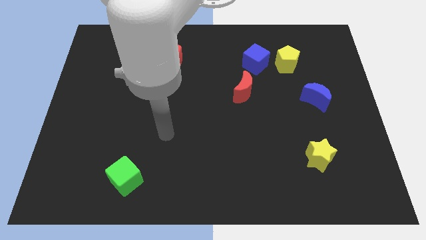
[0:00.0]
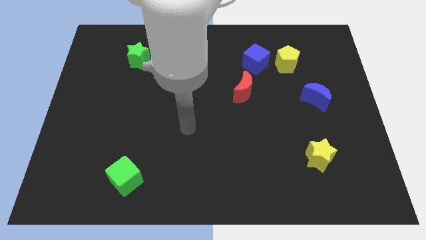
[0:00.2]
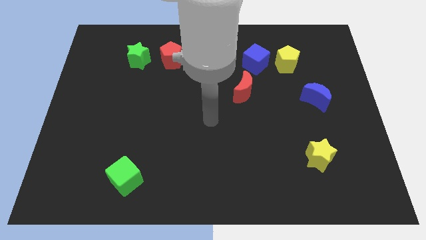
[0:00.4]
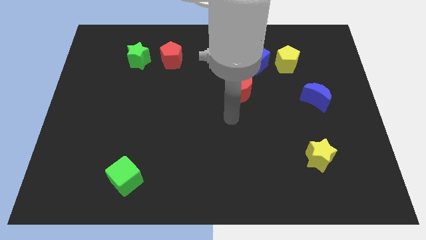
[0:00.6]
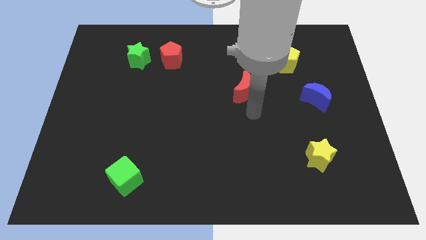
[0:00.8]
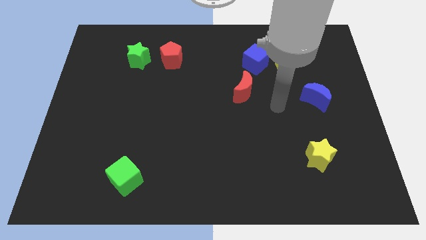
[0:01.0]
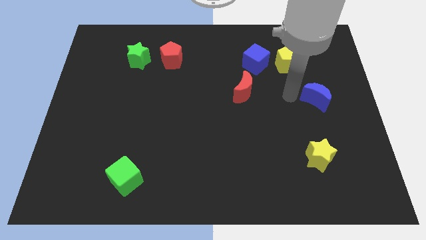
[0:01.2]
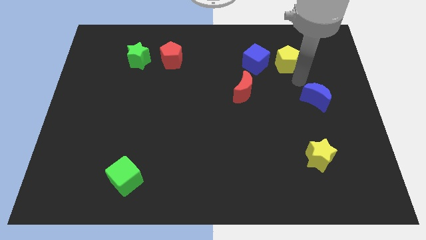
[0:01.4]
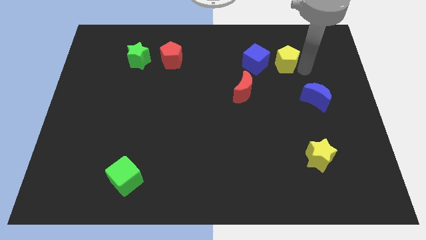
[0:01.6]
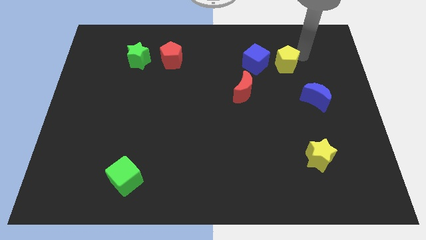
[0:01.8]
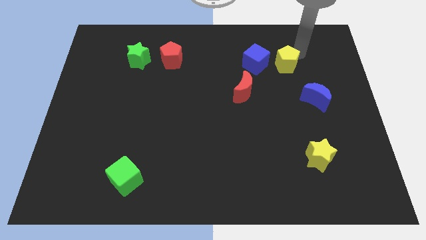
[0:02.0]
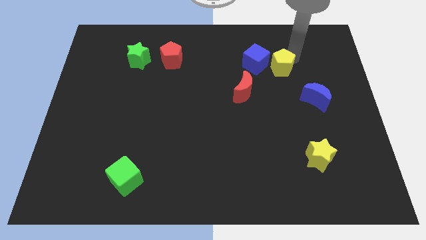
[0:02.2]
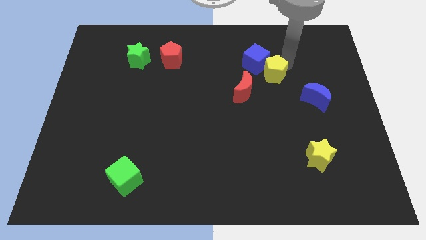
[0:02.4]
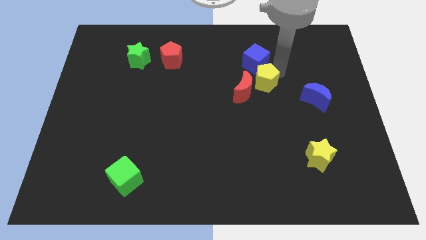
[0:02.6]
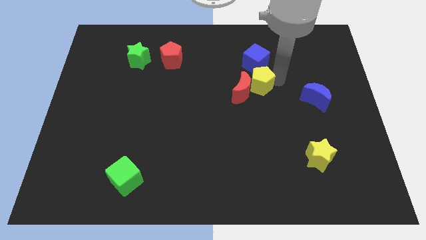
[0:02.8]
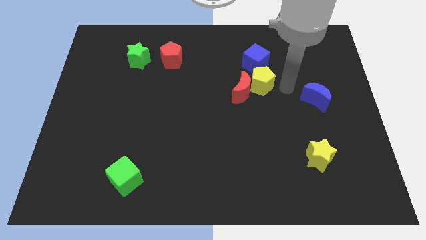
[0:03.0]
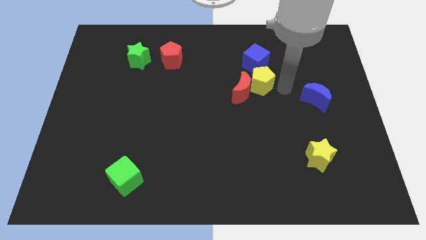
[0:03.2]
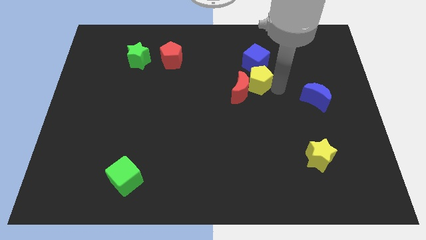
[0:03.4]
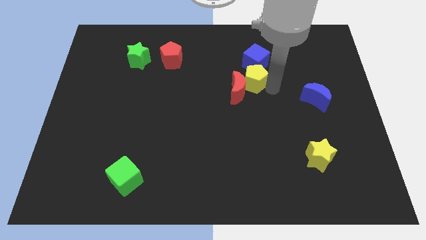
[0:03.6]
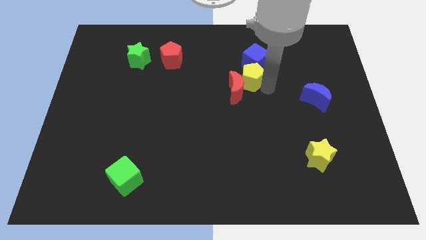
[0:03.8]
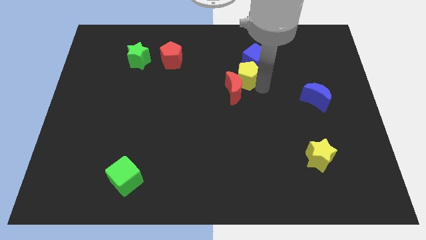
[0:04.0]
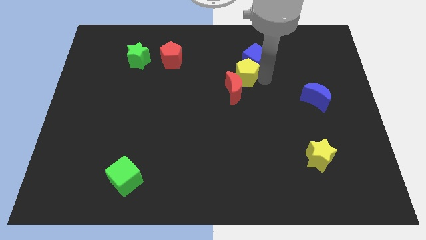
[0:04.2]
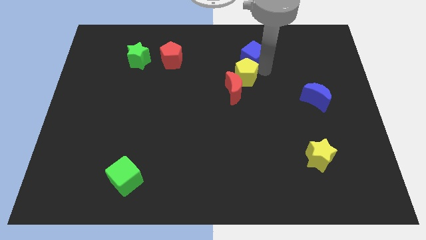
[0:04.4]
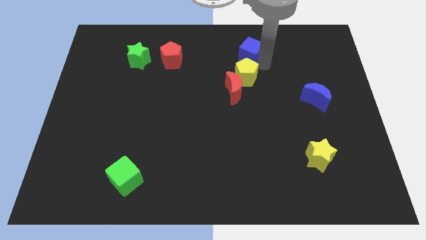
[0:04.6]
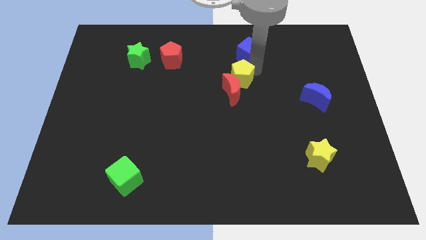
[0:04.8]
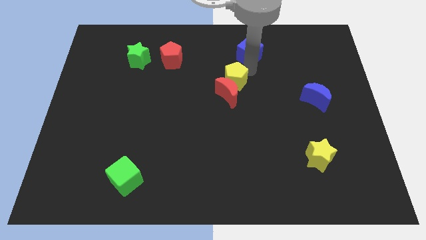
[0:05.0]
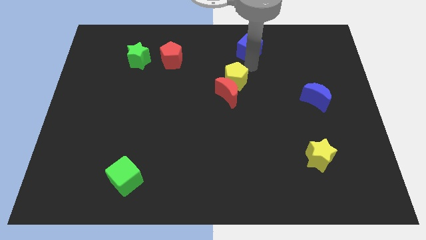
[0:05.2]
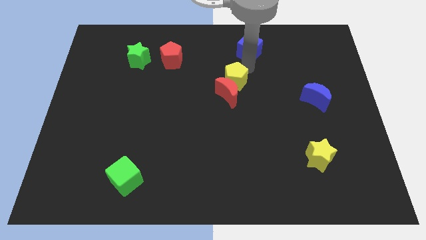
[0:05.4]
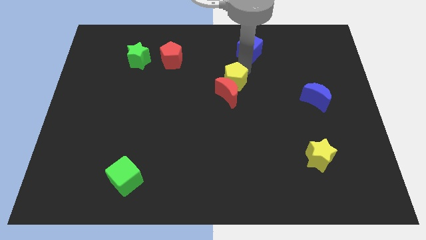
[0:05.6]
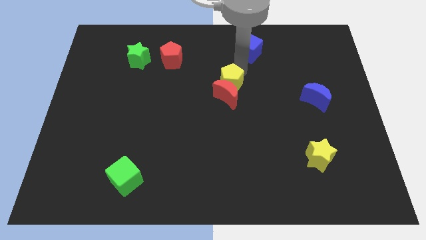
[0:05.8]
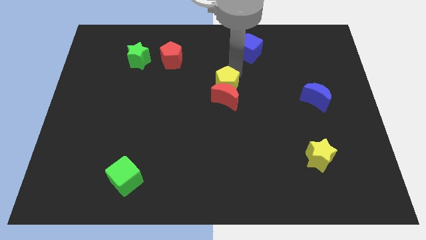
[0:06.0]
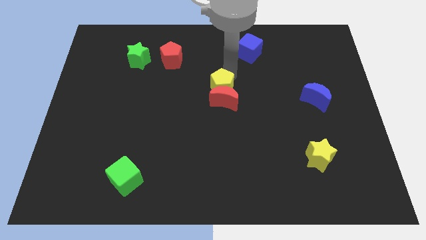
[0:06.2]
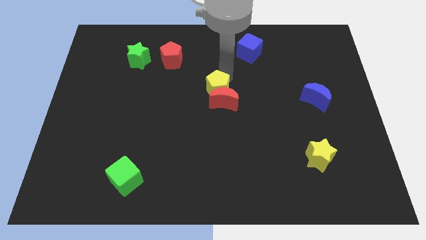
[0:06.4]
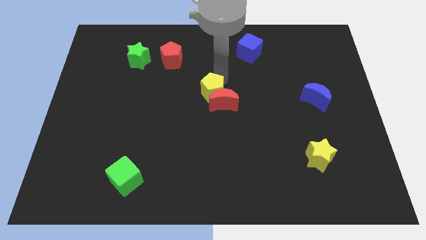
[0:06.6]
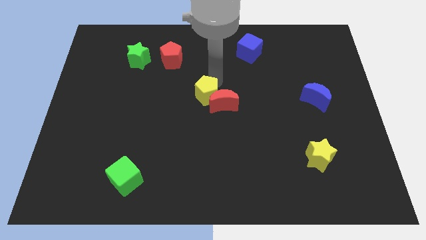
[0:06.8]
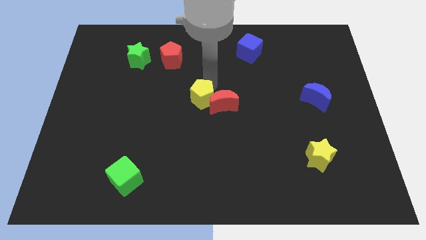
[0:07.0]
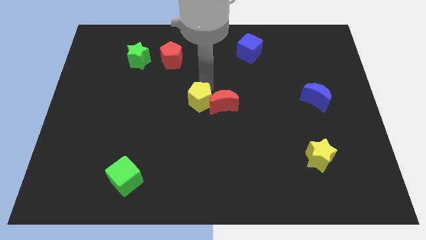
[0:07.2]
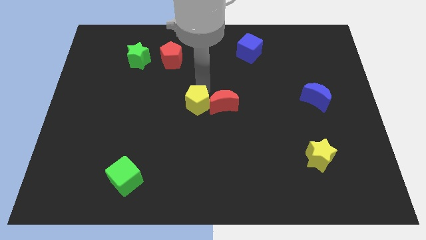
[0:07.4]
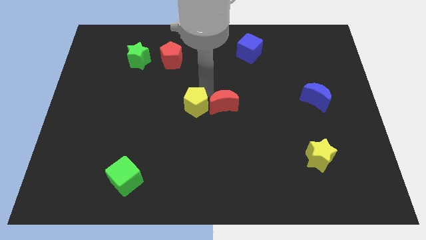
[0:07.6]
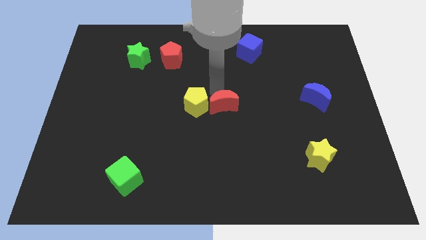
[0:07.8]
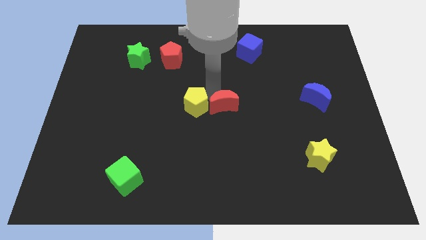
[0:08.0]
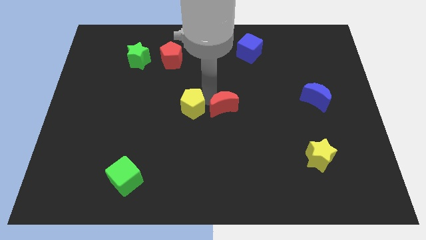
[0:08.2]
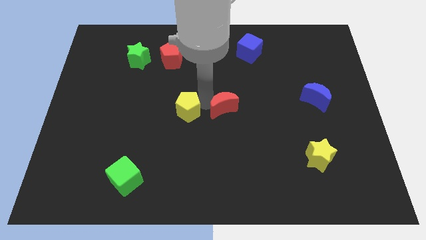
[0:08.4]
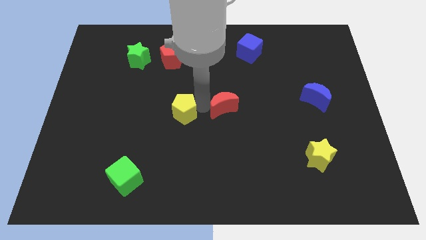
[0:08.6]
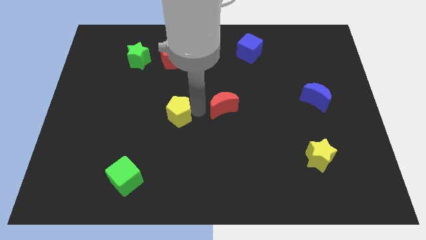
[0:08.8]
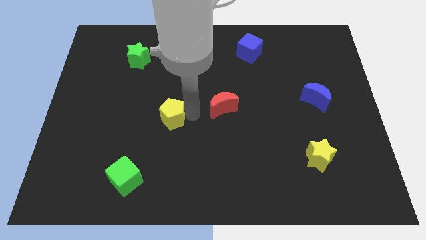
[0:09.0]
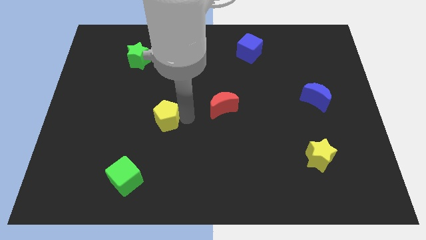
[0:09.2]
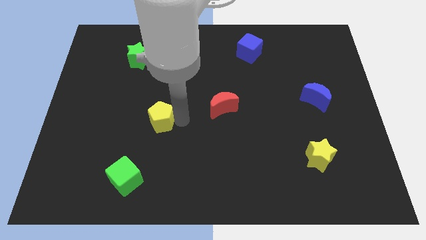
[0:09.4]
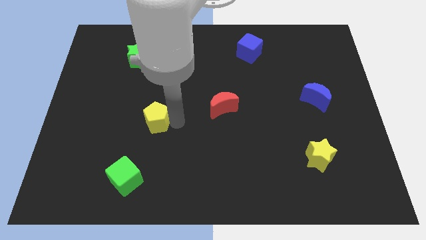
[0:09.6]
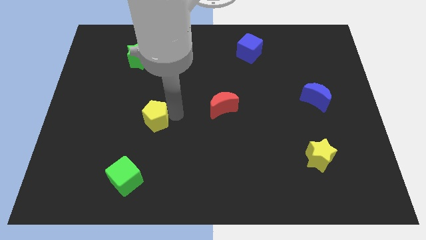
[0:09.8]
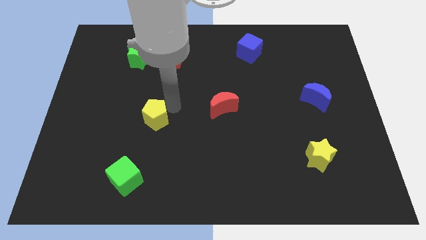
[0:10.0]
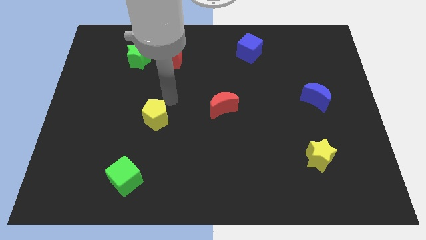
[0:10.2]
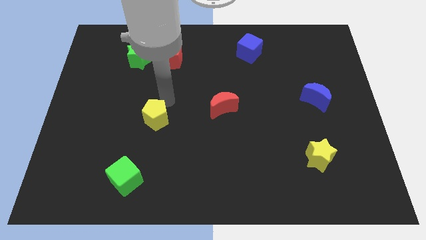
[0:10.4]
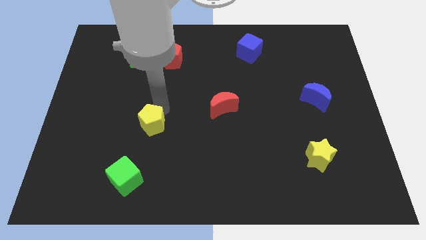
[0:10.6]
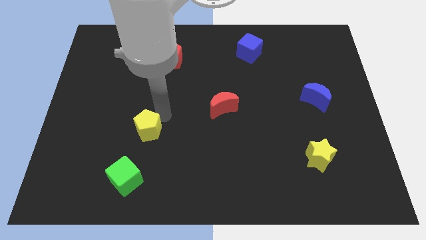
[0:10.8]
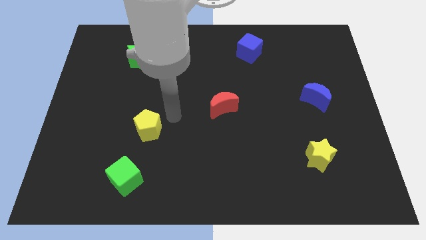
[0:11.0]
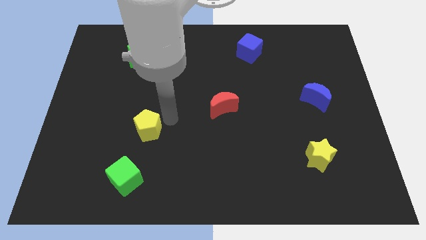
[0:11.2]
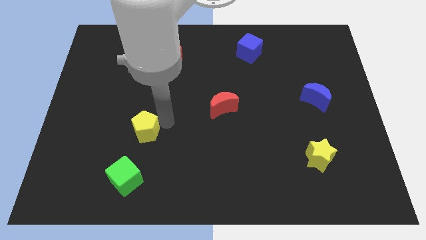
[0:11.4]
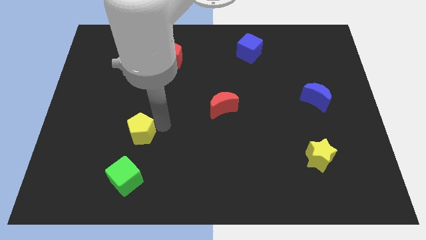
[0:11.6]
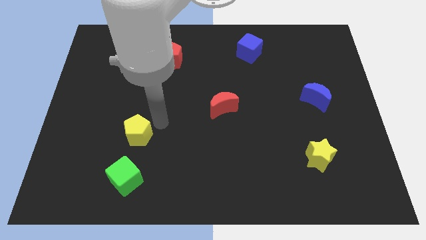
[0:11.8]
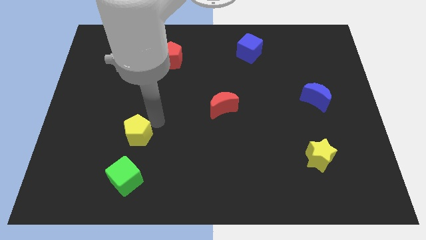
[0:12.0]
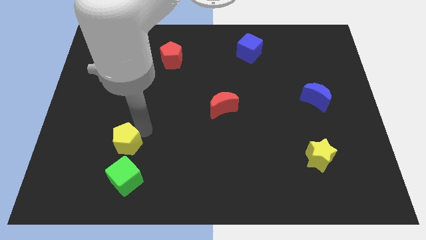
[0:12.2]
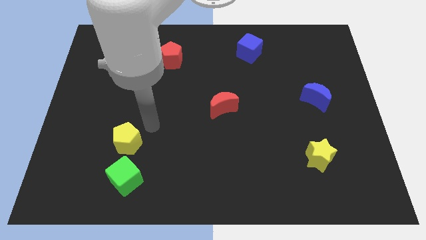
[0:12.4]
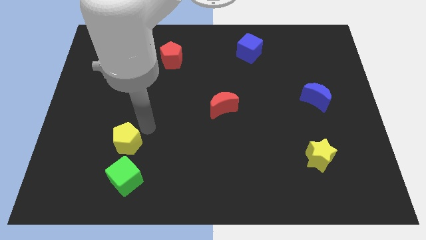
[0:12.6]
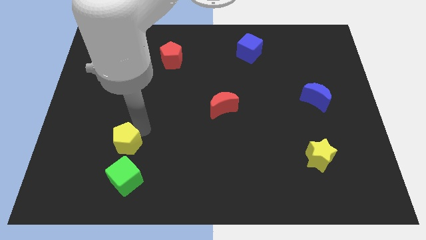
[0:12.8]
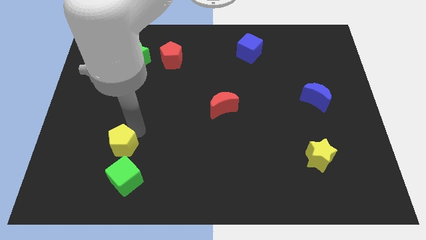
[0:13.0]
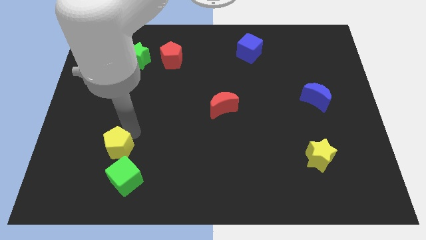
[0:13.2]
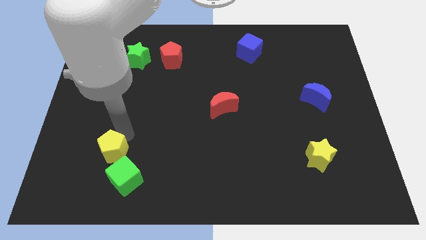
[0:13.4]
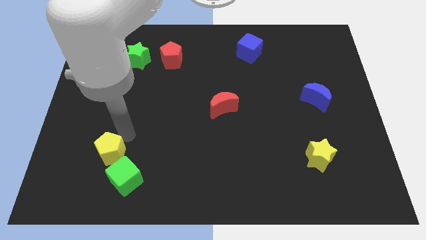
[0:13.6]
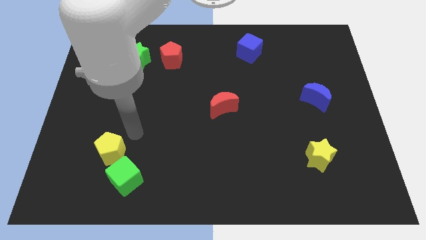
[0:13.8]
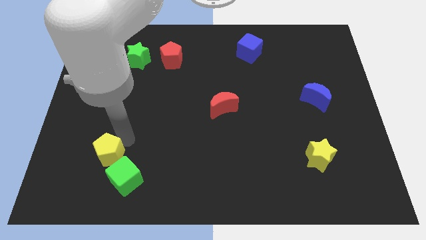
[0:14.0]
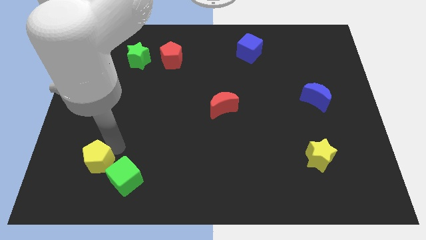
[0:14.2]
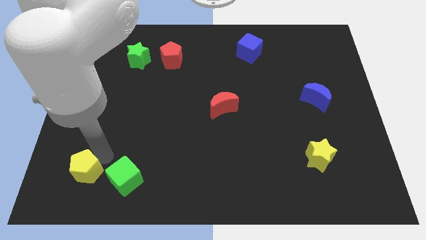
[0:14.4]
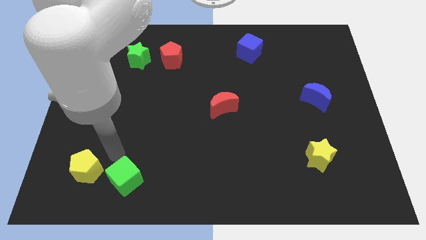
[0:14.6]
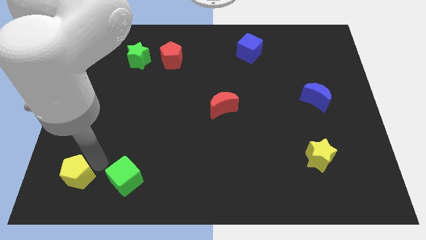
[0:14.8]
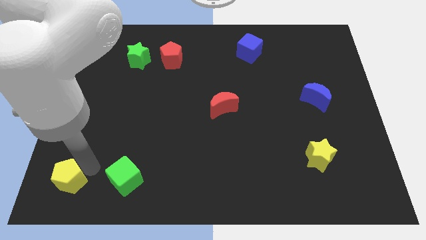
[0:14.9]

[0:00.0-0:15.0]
put the yellow pentagon to the lower left corner
